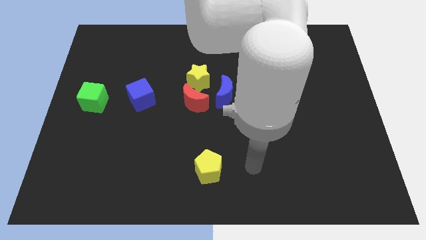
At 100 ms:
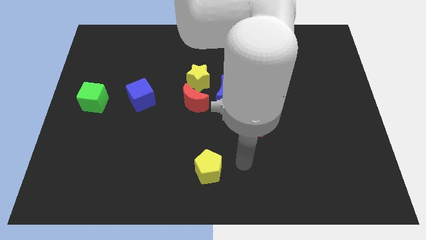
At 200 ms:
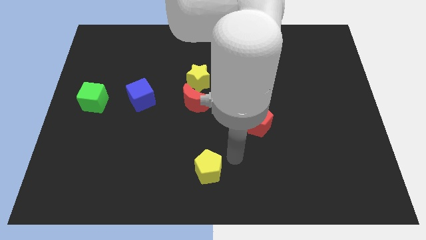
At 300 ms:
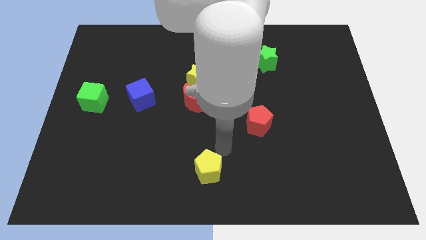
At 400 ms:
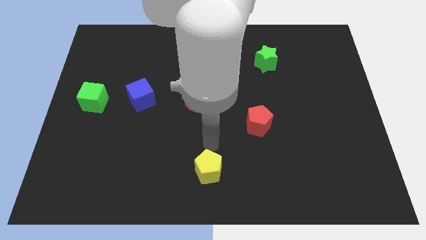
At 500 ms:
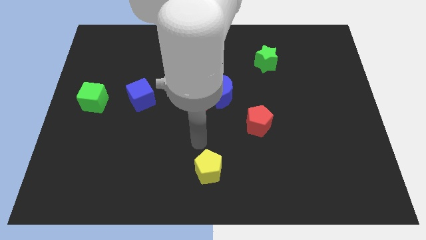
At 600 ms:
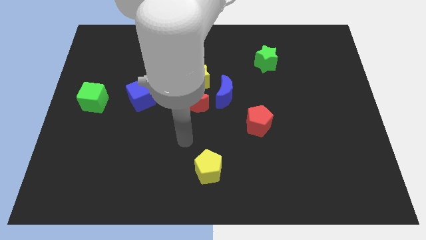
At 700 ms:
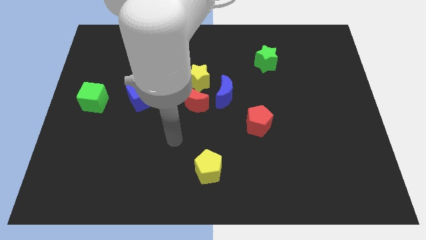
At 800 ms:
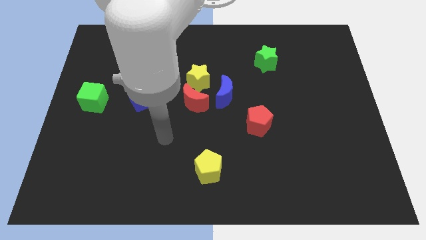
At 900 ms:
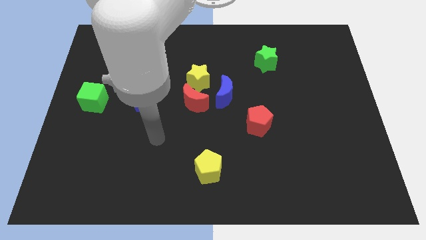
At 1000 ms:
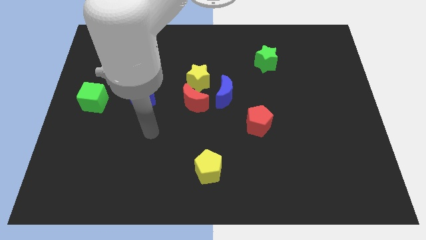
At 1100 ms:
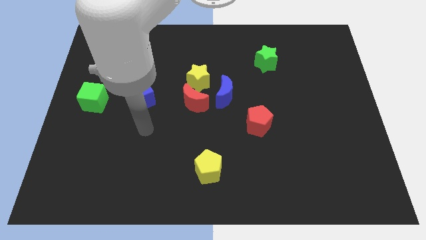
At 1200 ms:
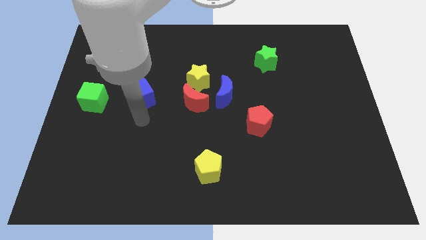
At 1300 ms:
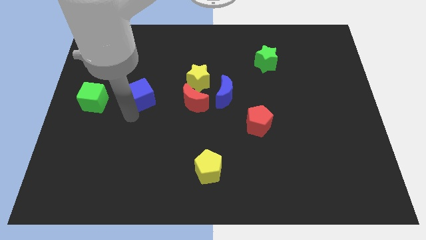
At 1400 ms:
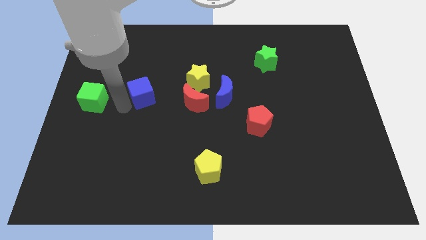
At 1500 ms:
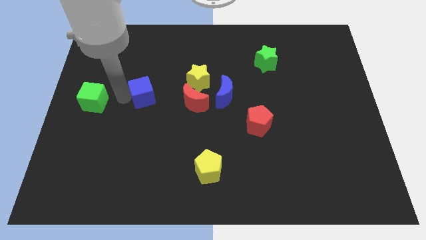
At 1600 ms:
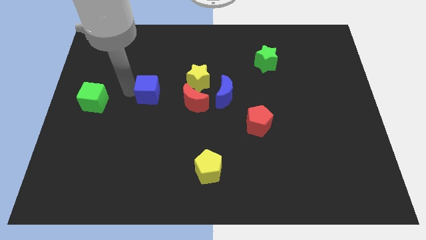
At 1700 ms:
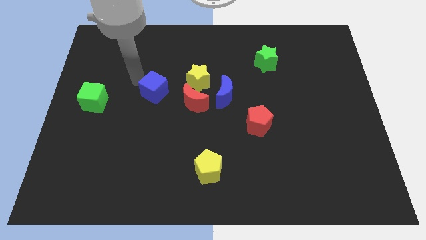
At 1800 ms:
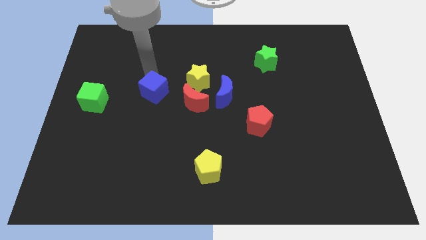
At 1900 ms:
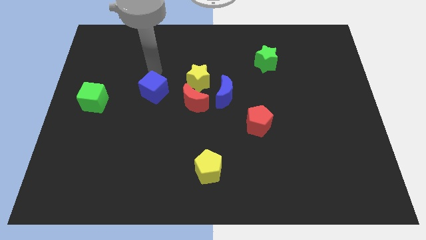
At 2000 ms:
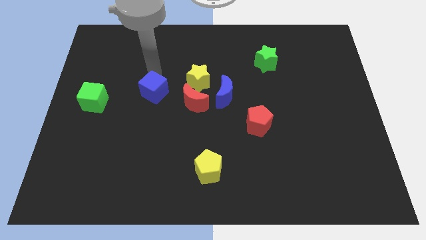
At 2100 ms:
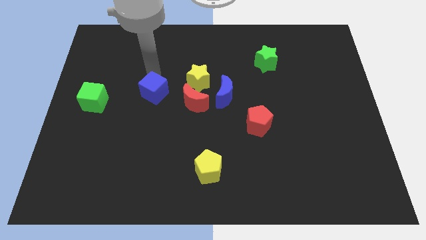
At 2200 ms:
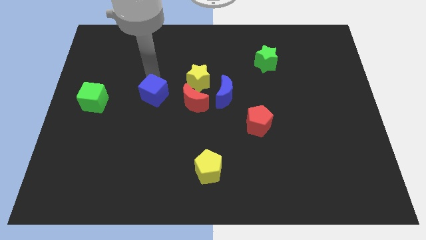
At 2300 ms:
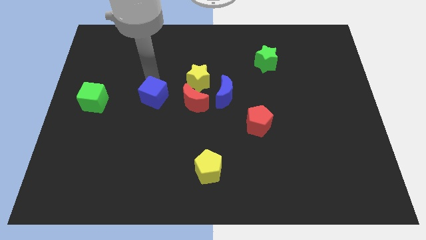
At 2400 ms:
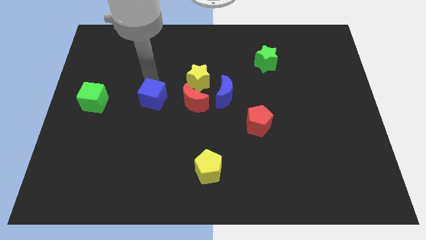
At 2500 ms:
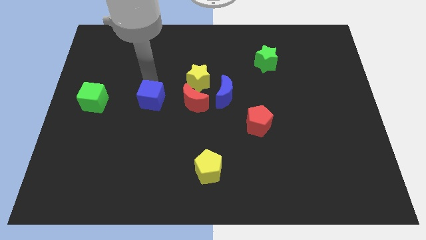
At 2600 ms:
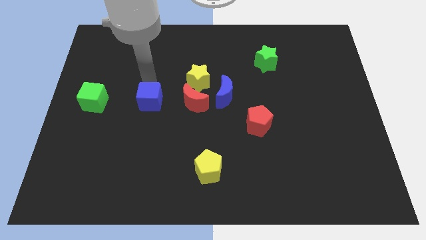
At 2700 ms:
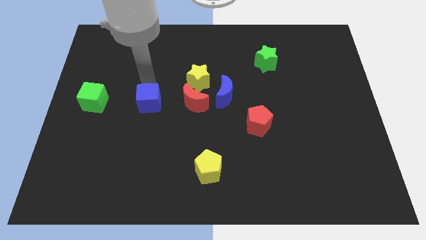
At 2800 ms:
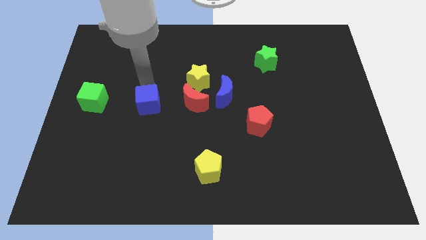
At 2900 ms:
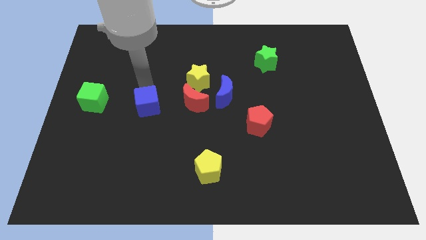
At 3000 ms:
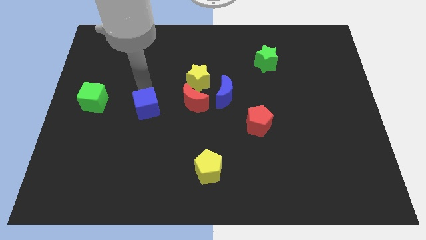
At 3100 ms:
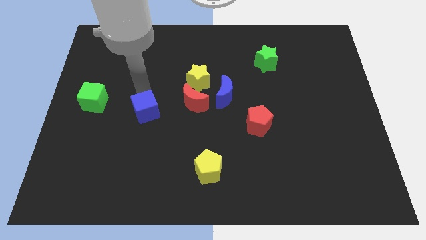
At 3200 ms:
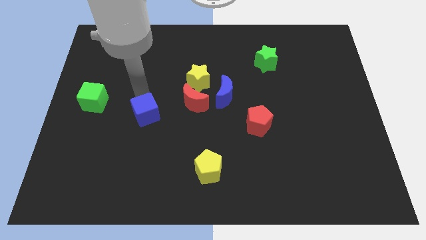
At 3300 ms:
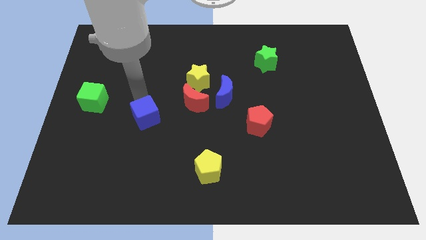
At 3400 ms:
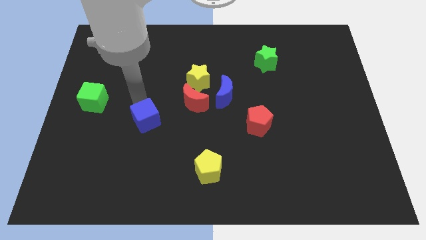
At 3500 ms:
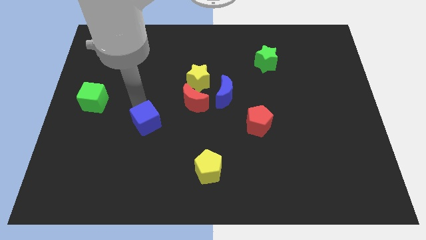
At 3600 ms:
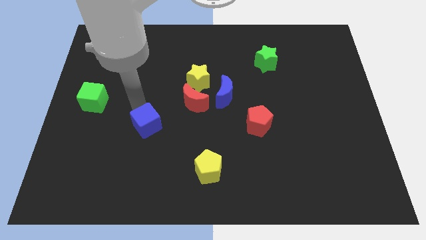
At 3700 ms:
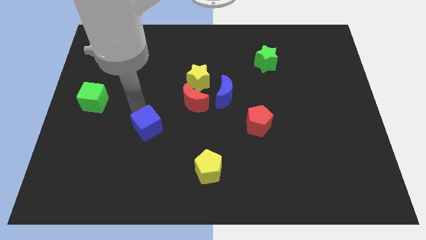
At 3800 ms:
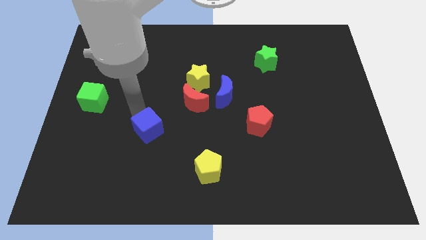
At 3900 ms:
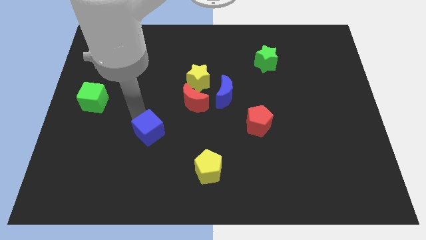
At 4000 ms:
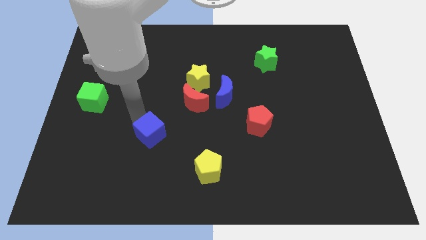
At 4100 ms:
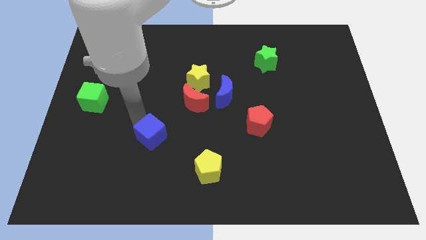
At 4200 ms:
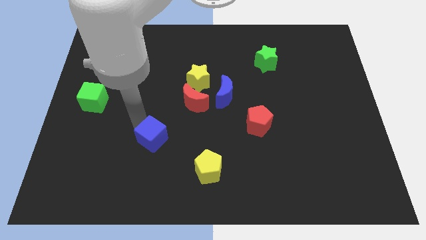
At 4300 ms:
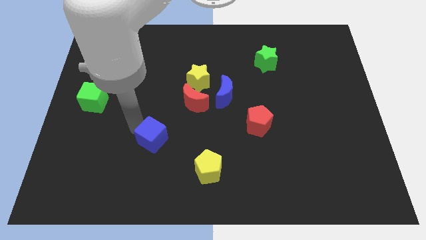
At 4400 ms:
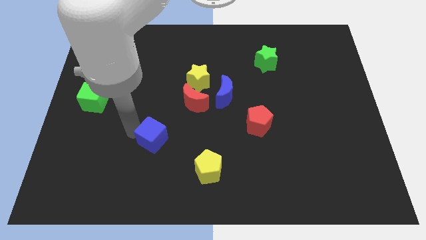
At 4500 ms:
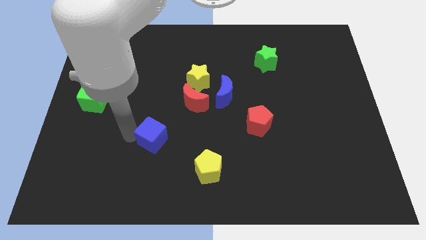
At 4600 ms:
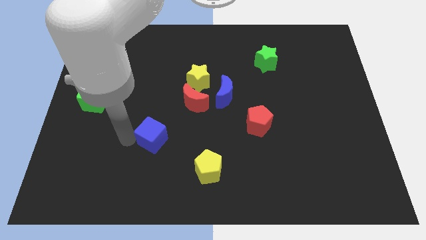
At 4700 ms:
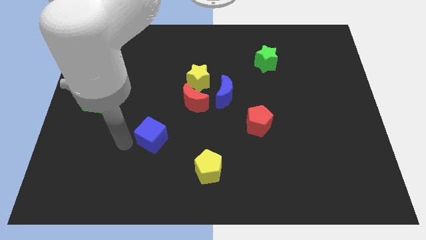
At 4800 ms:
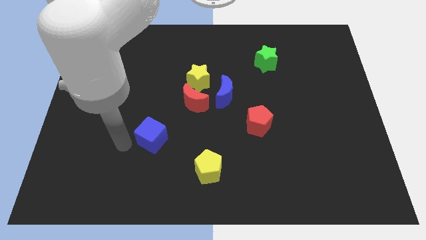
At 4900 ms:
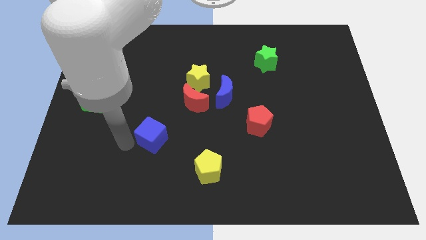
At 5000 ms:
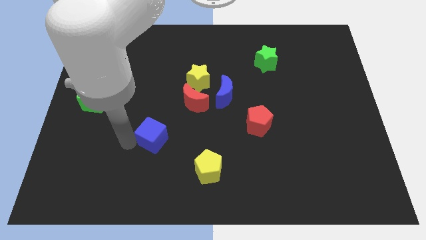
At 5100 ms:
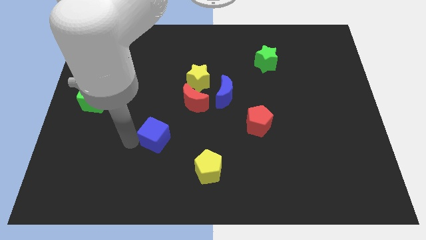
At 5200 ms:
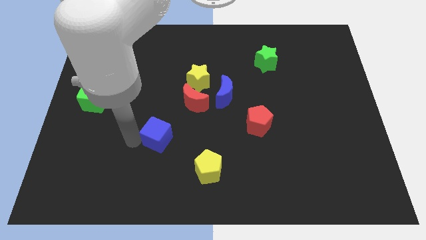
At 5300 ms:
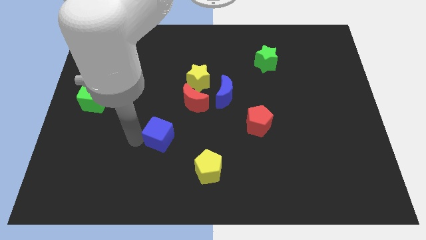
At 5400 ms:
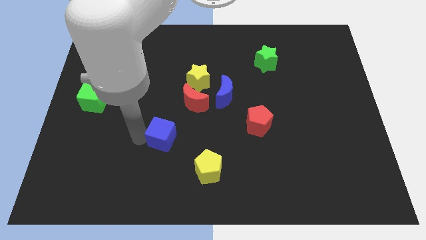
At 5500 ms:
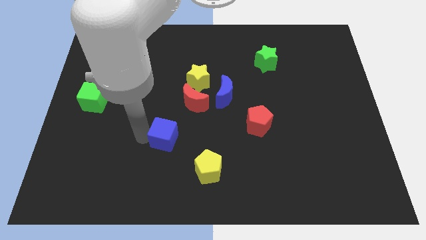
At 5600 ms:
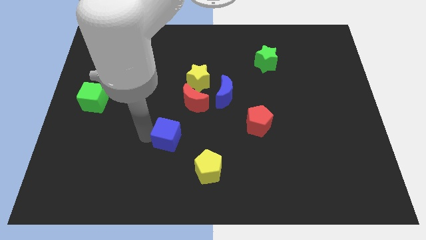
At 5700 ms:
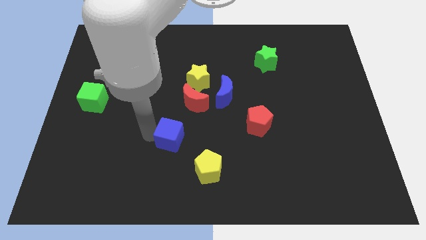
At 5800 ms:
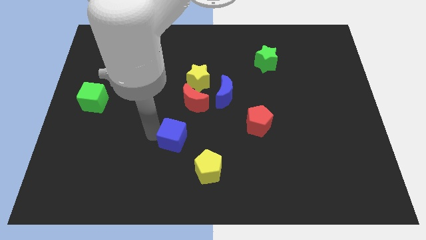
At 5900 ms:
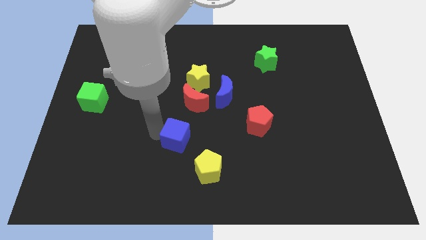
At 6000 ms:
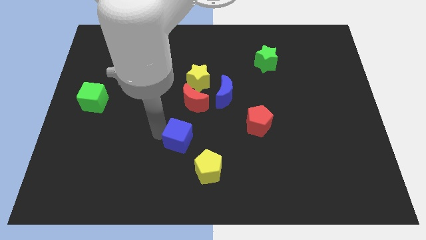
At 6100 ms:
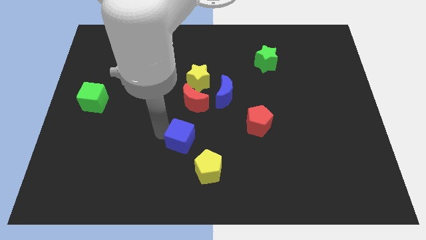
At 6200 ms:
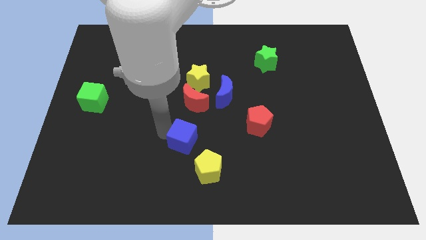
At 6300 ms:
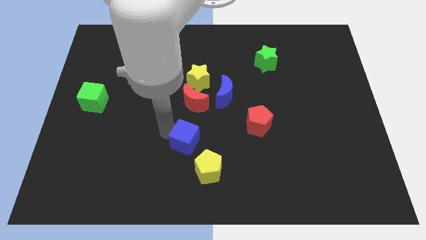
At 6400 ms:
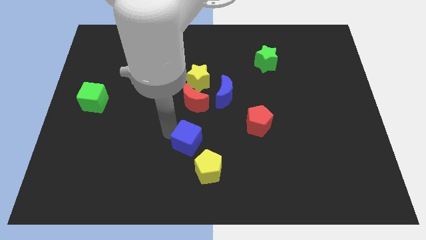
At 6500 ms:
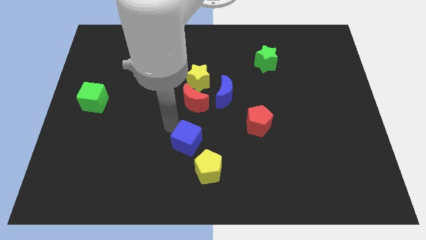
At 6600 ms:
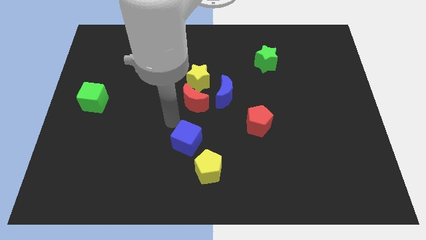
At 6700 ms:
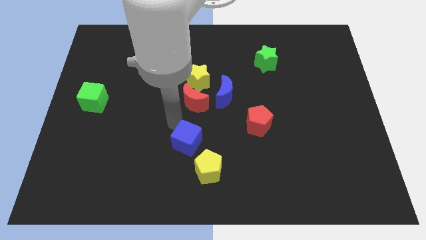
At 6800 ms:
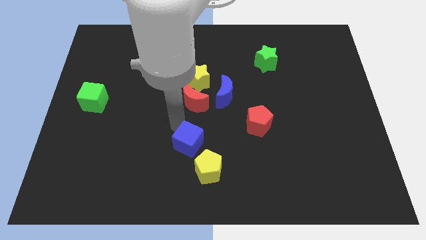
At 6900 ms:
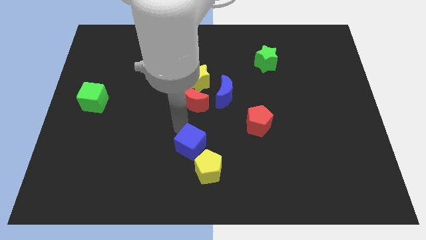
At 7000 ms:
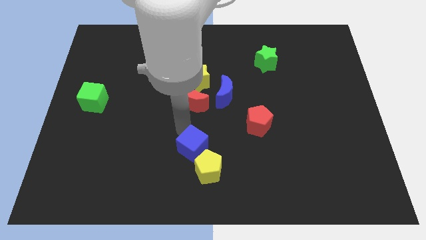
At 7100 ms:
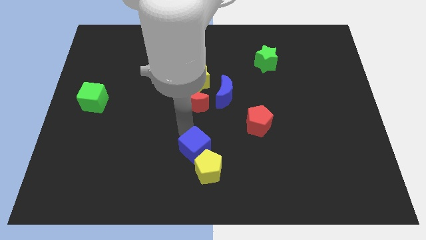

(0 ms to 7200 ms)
push the blue cube close to the yellow pentagon
